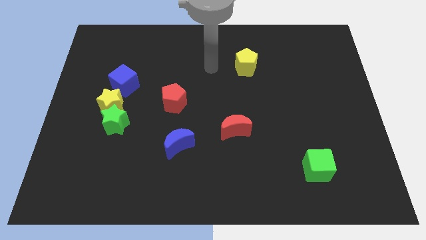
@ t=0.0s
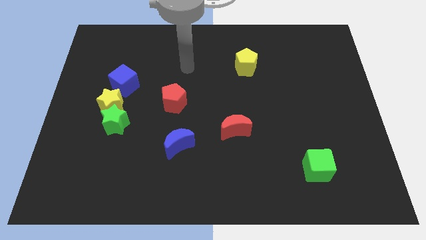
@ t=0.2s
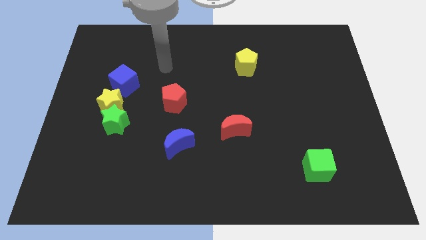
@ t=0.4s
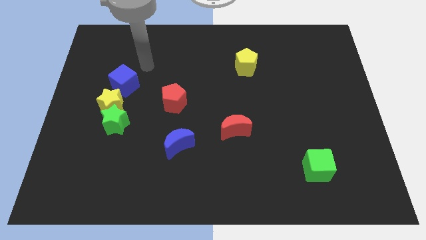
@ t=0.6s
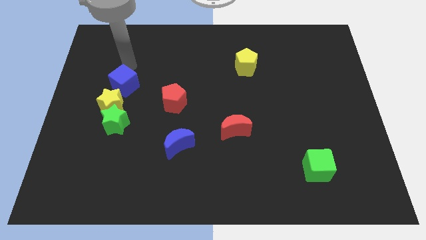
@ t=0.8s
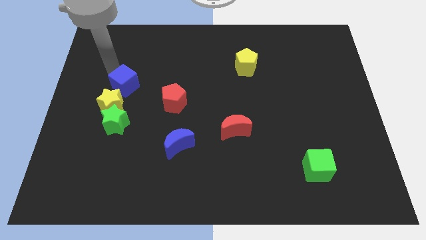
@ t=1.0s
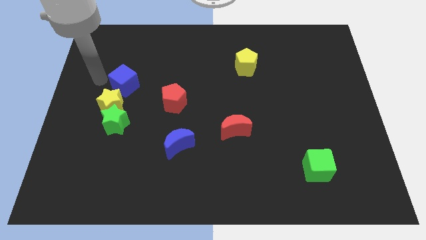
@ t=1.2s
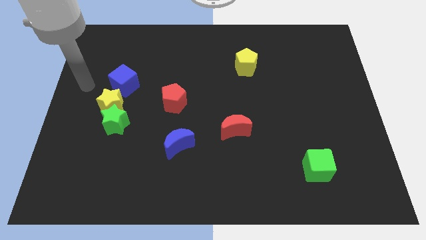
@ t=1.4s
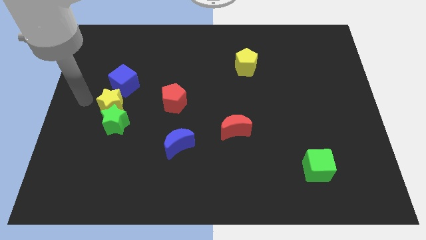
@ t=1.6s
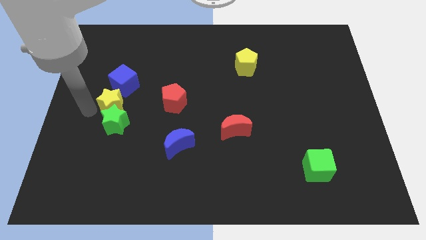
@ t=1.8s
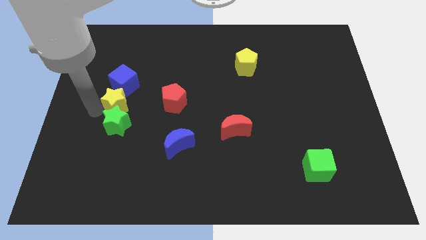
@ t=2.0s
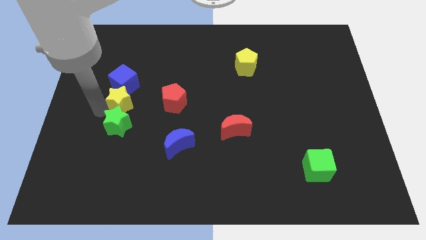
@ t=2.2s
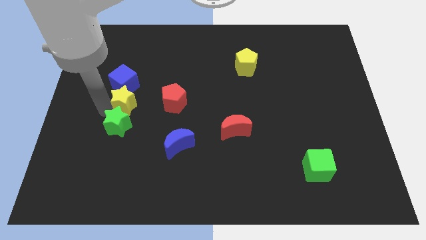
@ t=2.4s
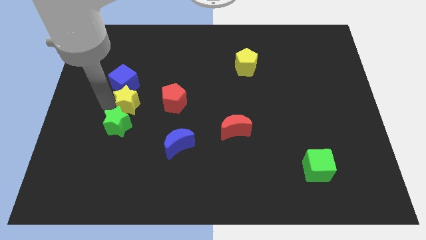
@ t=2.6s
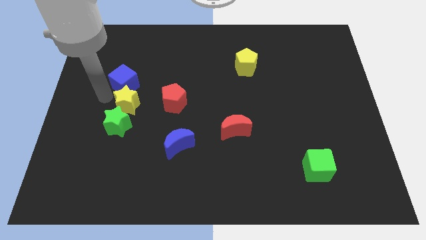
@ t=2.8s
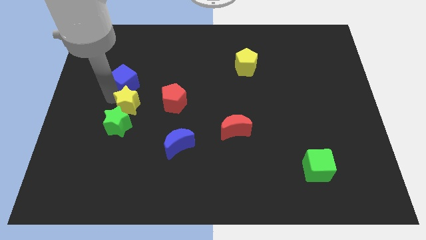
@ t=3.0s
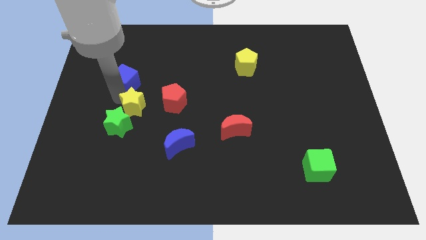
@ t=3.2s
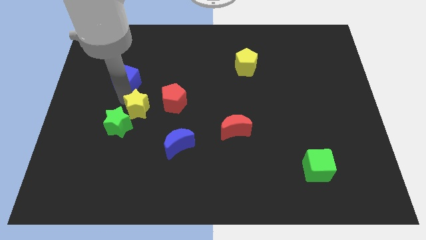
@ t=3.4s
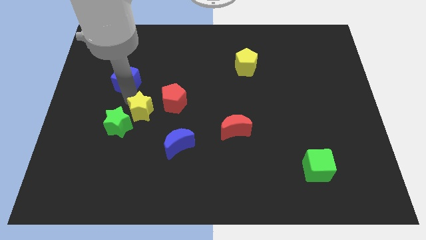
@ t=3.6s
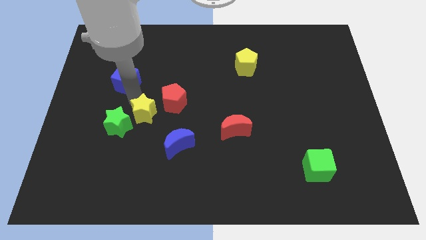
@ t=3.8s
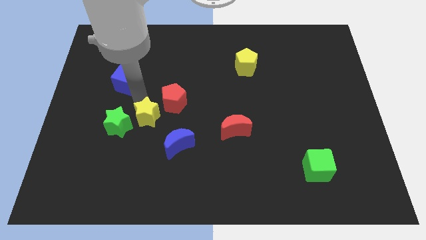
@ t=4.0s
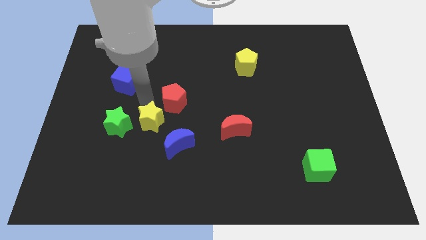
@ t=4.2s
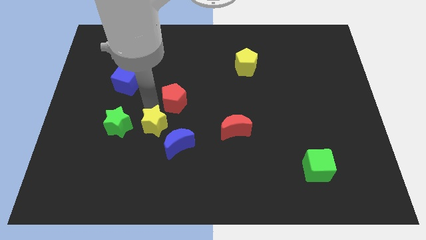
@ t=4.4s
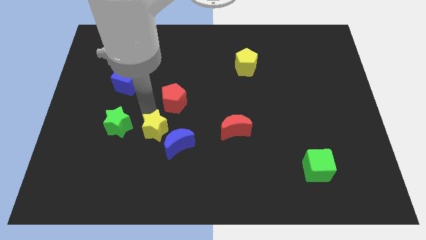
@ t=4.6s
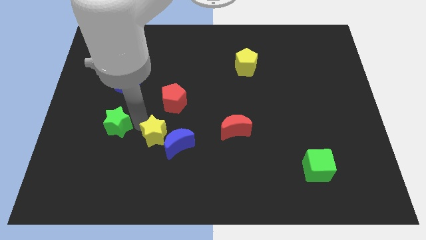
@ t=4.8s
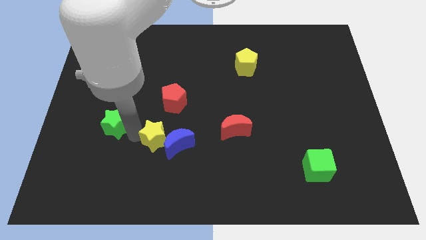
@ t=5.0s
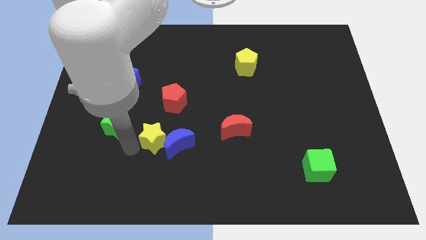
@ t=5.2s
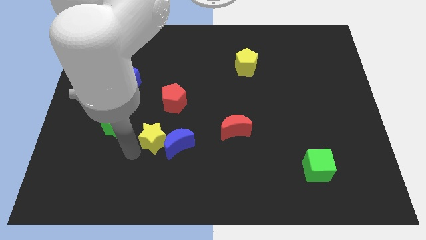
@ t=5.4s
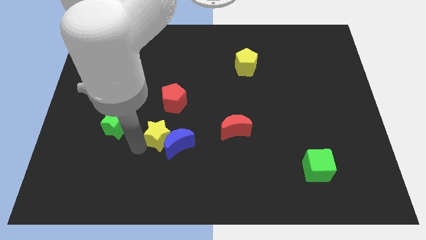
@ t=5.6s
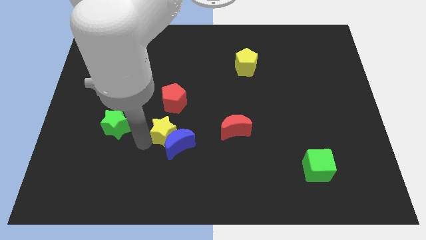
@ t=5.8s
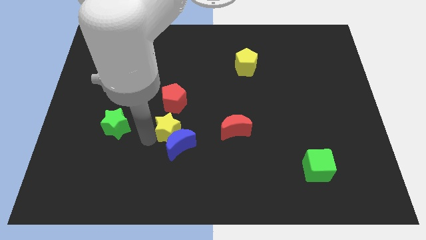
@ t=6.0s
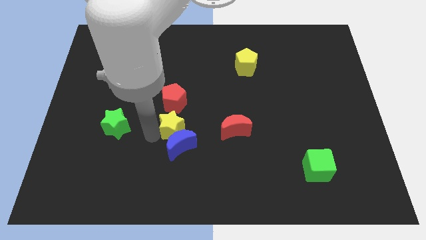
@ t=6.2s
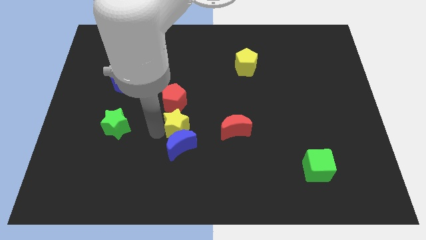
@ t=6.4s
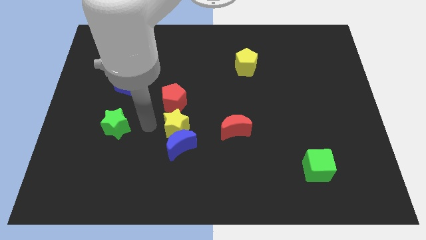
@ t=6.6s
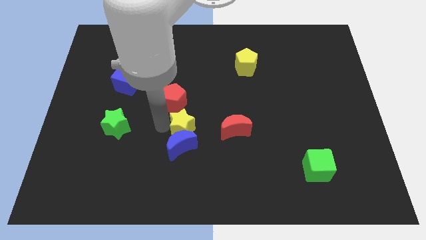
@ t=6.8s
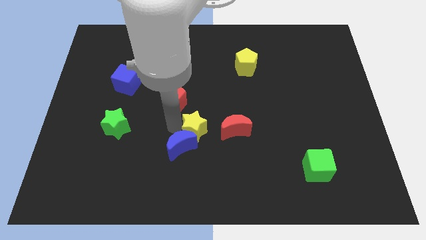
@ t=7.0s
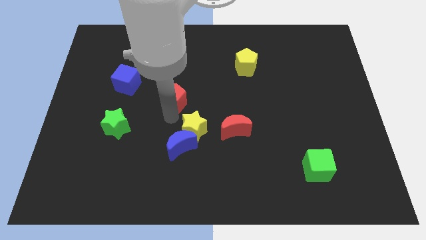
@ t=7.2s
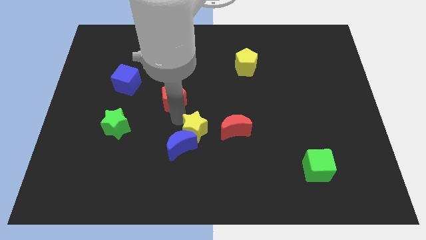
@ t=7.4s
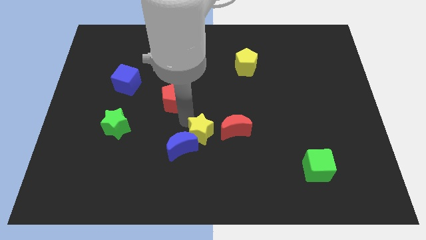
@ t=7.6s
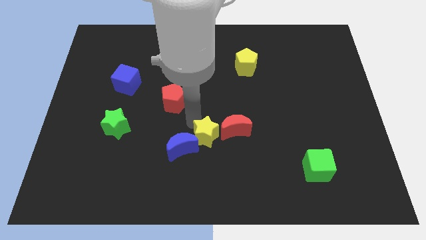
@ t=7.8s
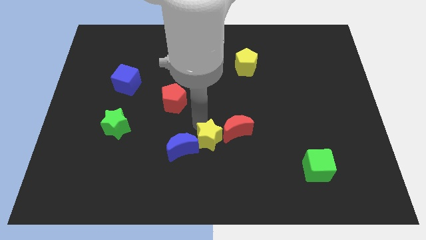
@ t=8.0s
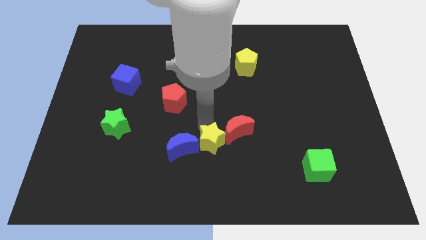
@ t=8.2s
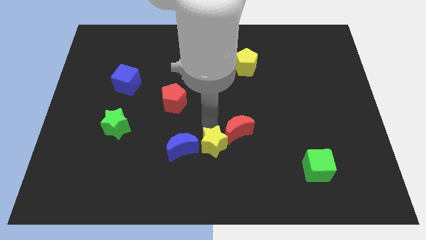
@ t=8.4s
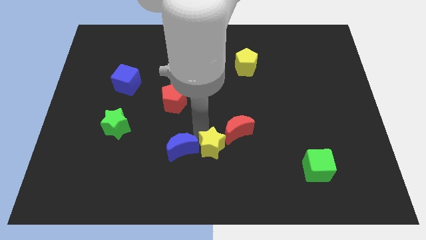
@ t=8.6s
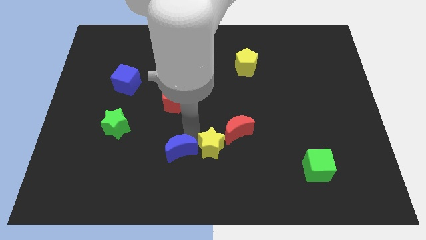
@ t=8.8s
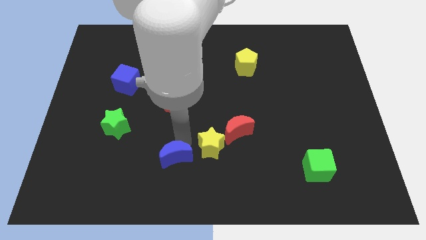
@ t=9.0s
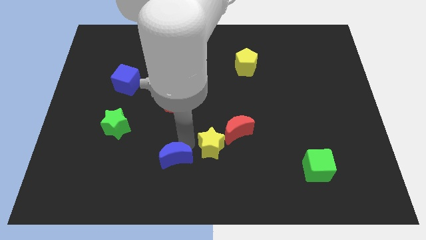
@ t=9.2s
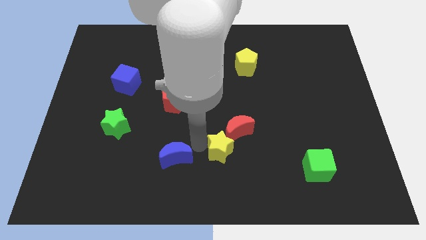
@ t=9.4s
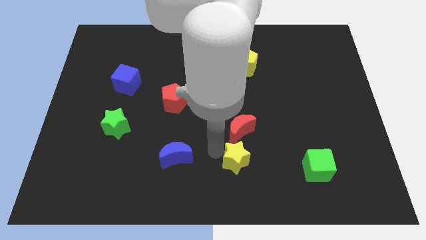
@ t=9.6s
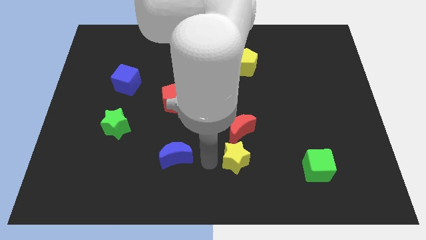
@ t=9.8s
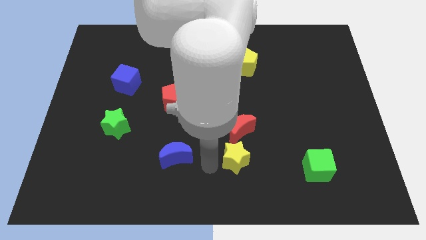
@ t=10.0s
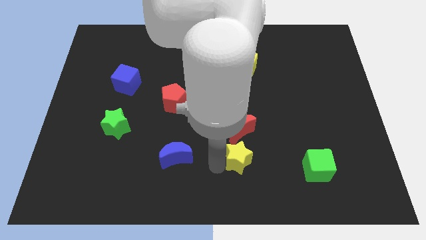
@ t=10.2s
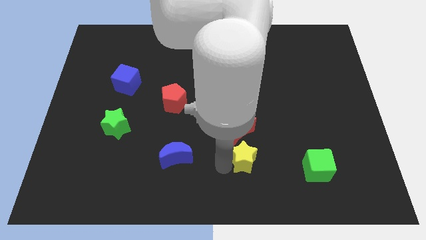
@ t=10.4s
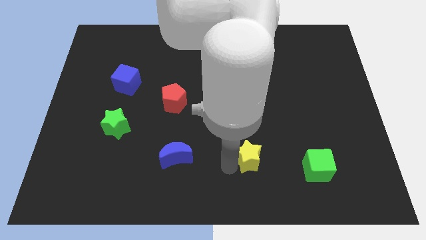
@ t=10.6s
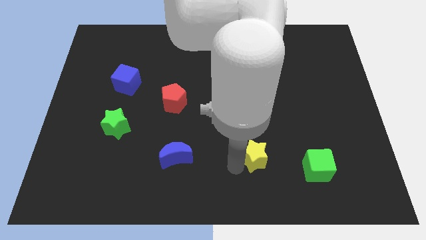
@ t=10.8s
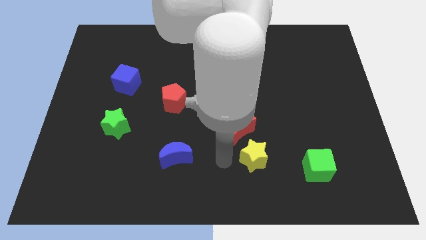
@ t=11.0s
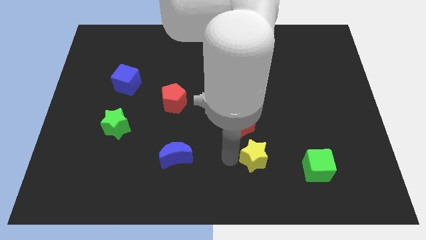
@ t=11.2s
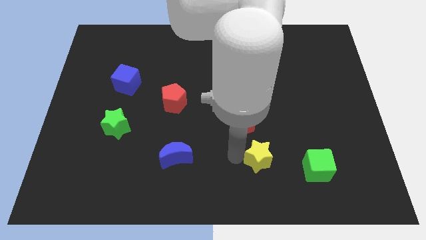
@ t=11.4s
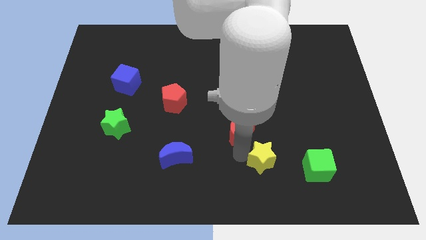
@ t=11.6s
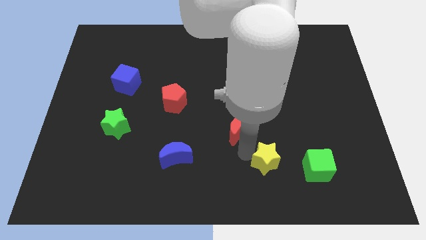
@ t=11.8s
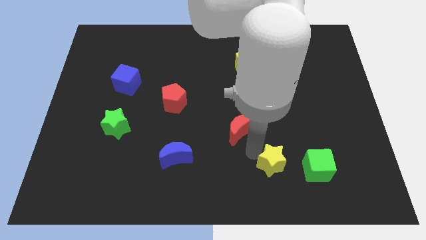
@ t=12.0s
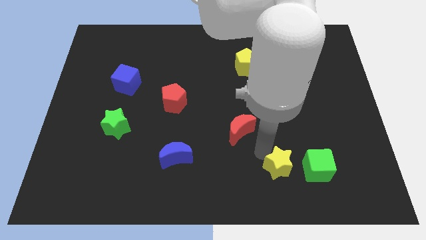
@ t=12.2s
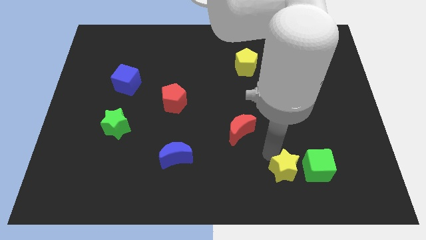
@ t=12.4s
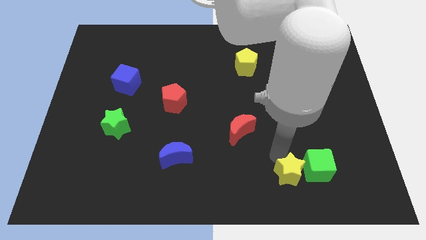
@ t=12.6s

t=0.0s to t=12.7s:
put the yellow star close to the green cube
